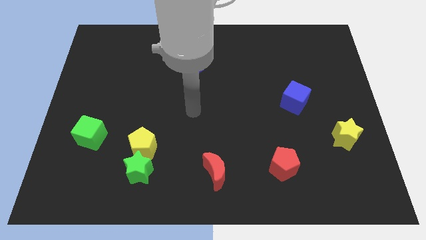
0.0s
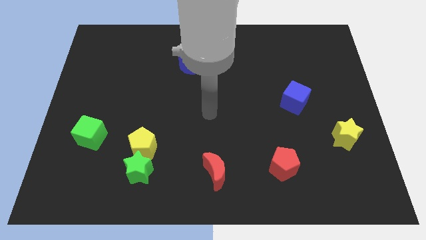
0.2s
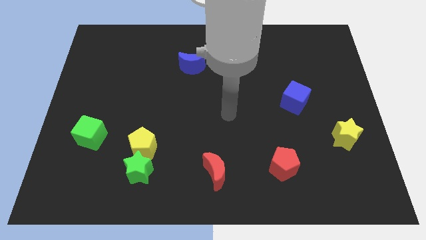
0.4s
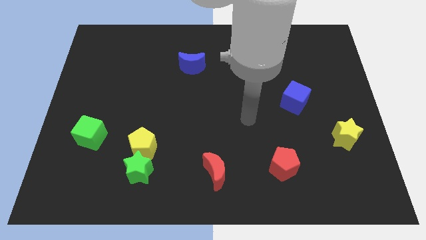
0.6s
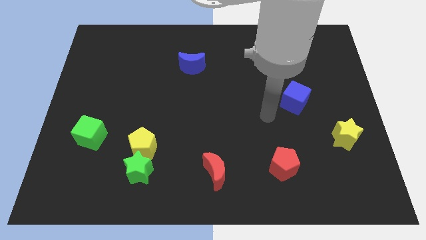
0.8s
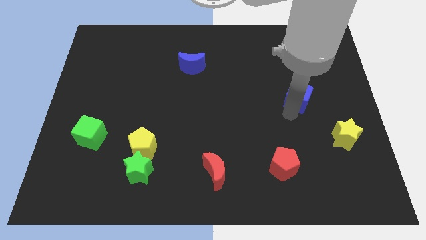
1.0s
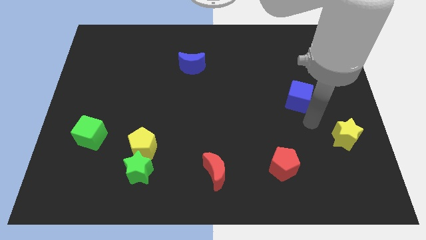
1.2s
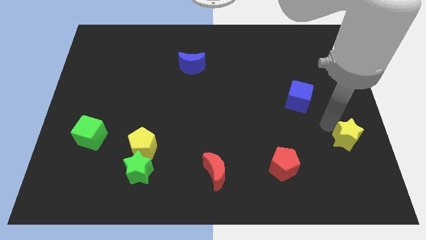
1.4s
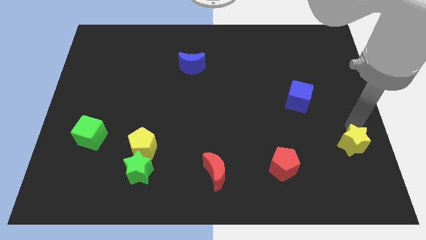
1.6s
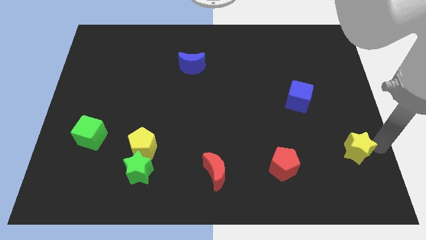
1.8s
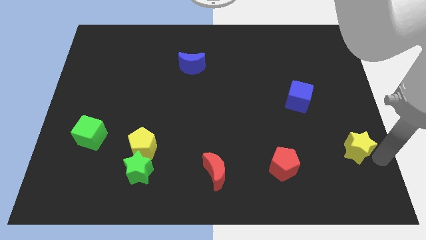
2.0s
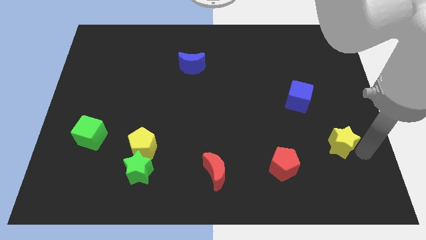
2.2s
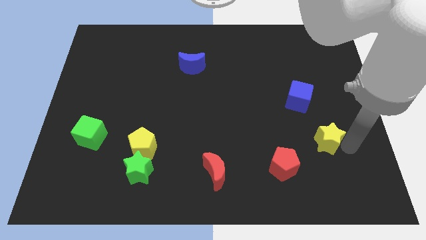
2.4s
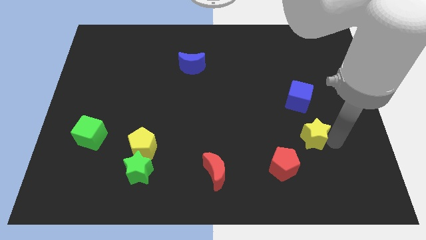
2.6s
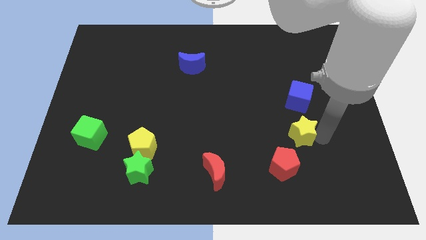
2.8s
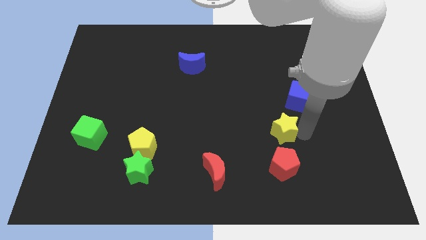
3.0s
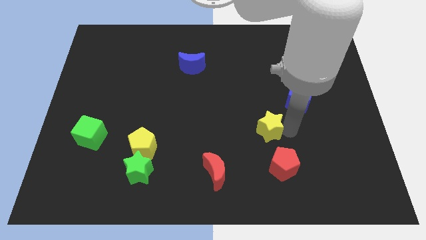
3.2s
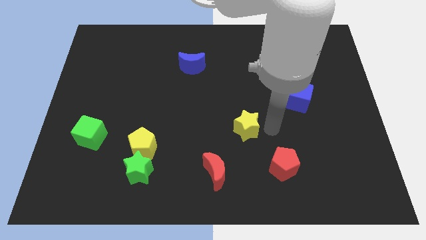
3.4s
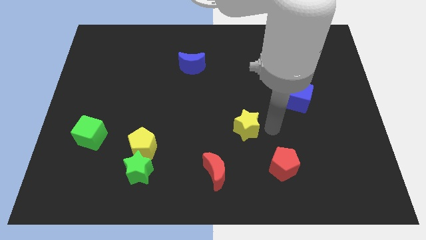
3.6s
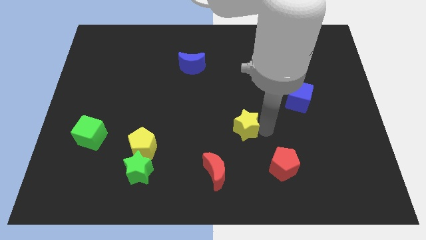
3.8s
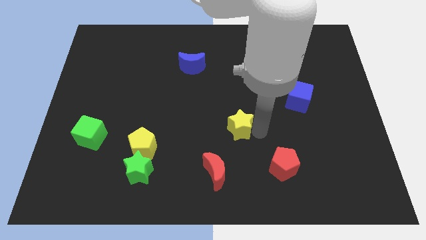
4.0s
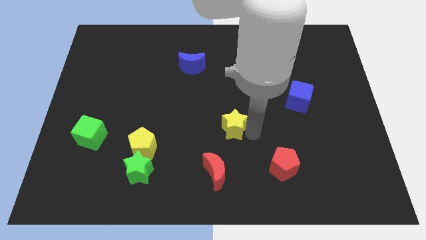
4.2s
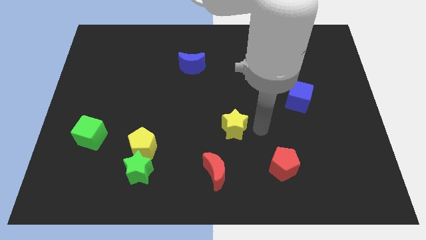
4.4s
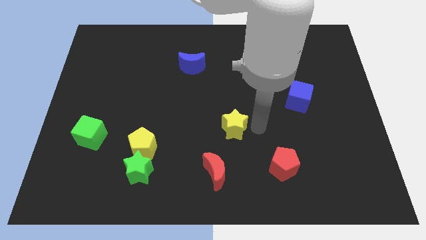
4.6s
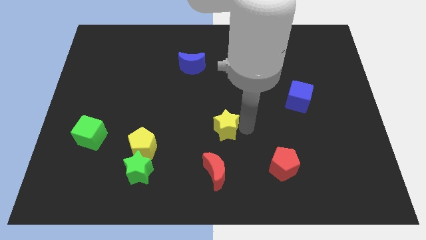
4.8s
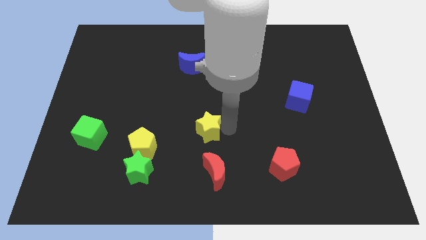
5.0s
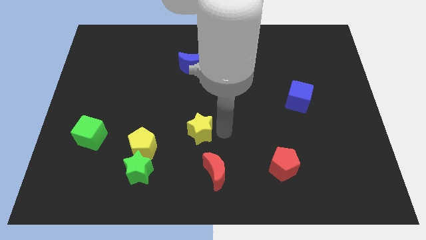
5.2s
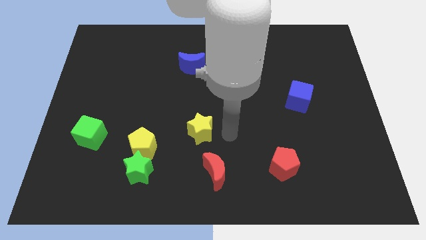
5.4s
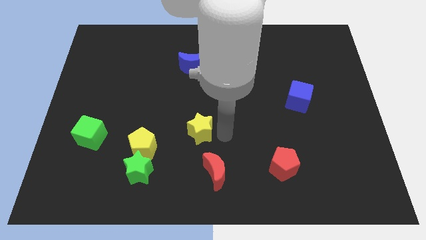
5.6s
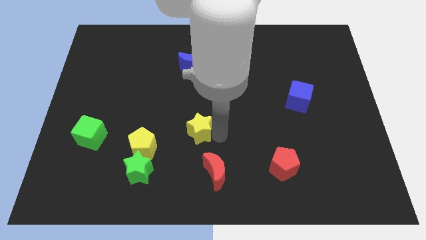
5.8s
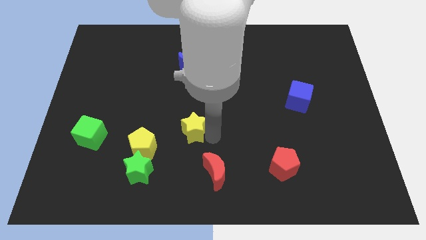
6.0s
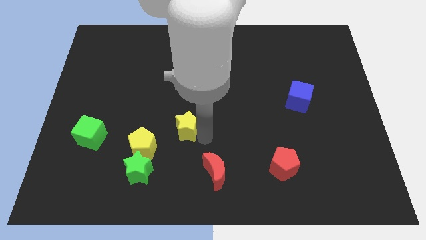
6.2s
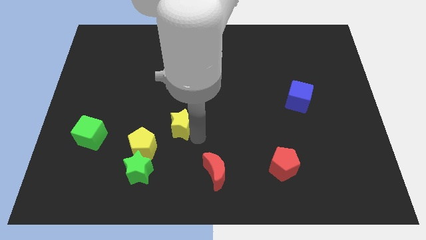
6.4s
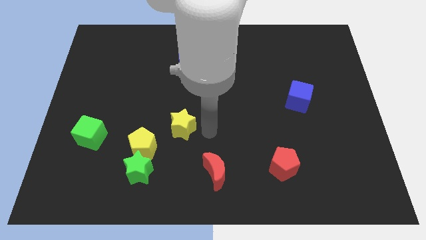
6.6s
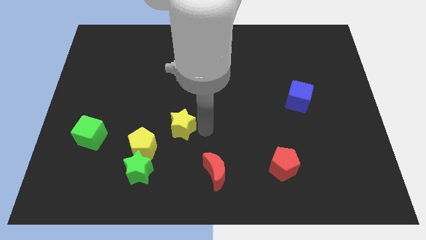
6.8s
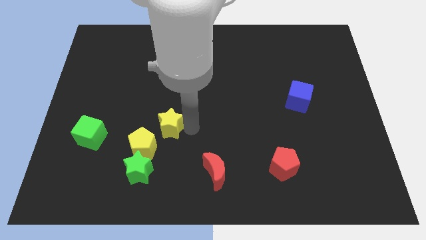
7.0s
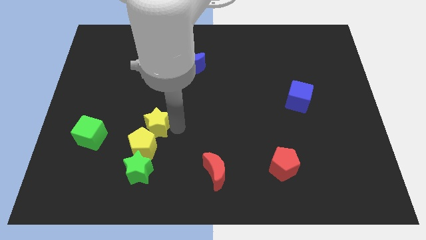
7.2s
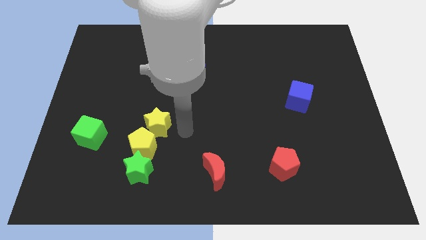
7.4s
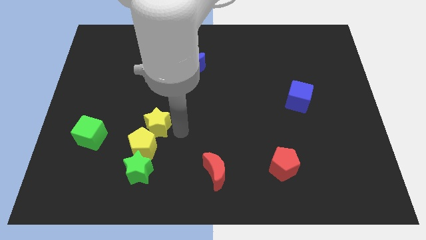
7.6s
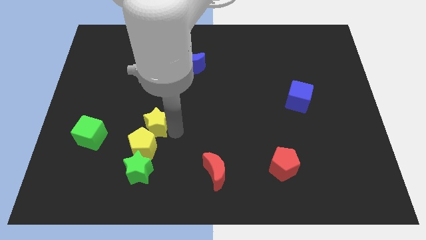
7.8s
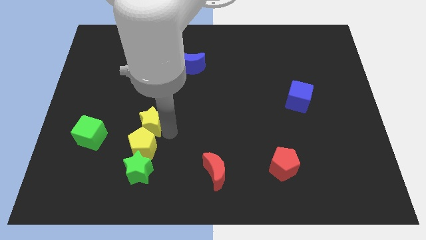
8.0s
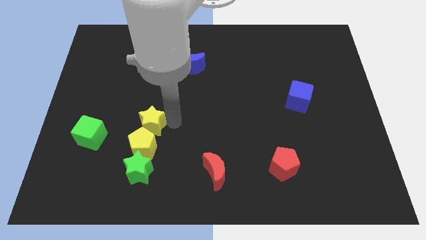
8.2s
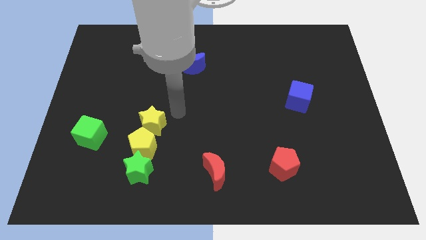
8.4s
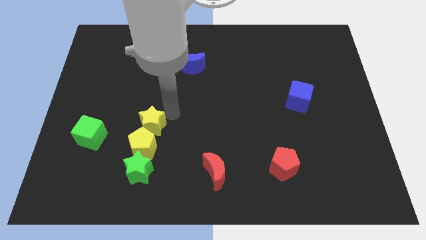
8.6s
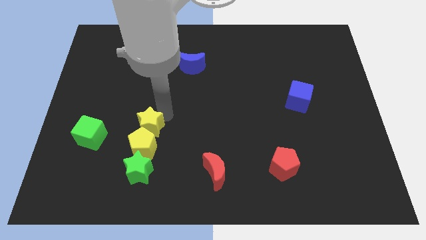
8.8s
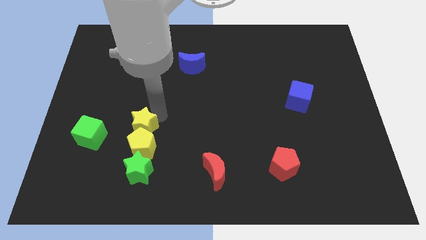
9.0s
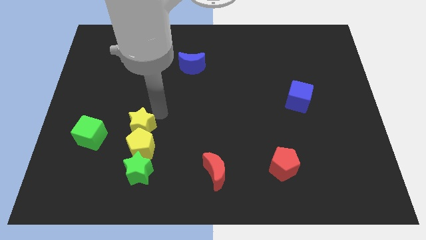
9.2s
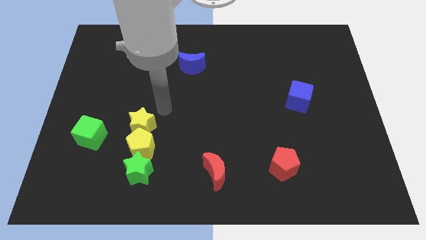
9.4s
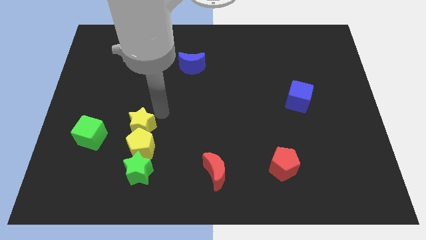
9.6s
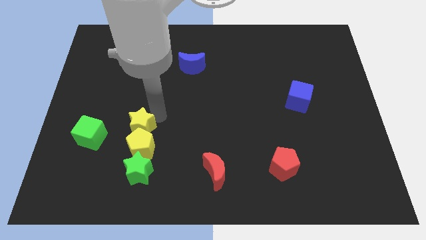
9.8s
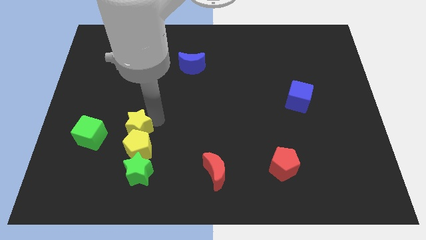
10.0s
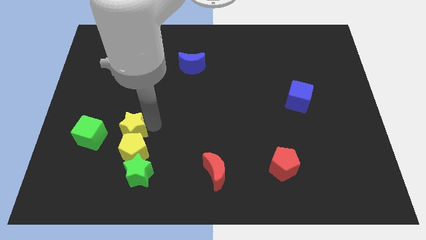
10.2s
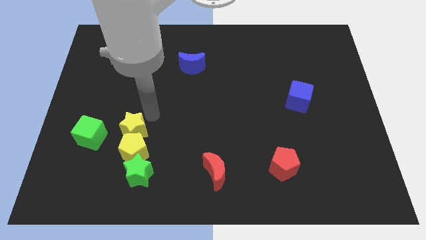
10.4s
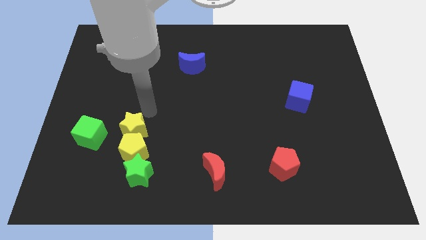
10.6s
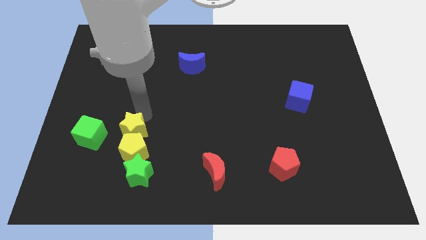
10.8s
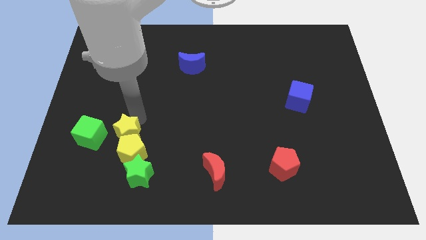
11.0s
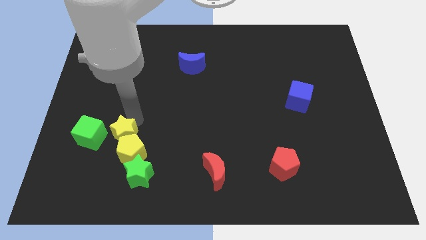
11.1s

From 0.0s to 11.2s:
move the yellow star diagonally up and to the left of the green star

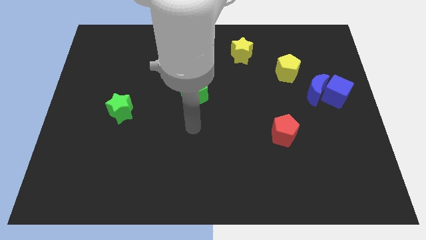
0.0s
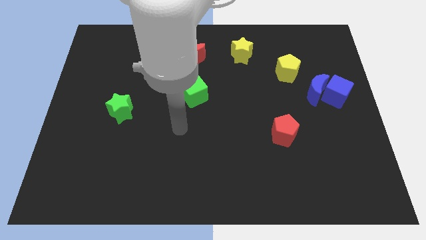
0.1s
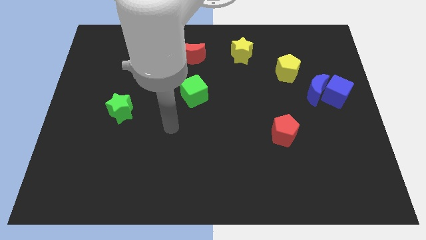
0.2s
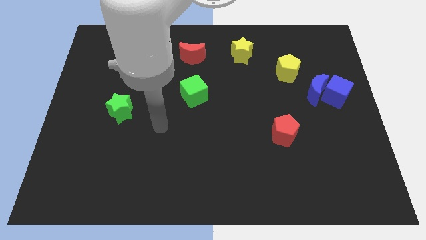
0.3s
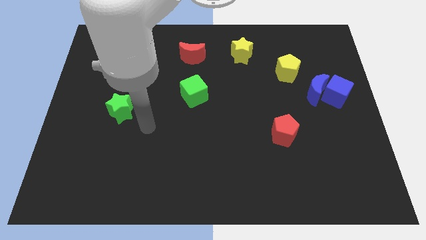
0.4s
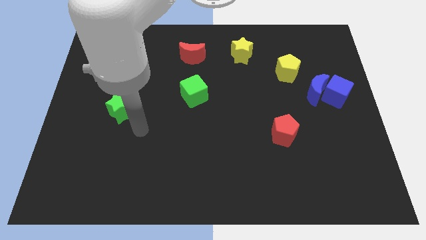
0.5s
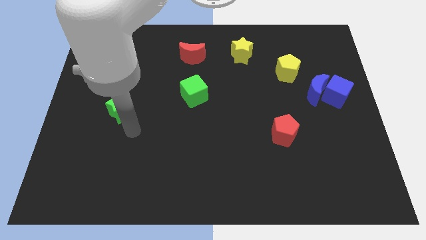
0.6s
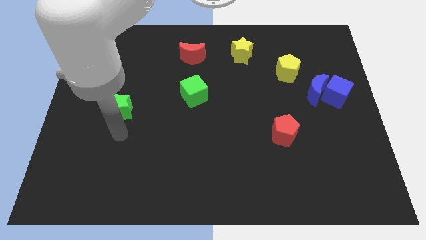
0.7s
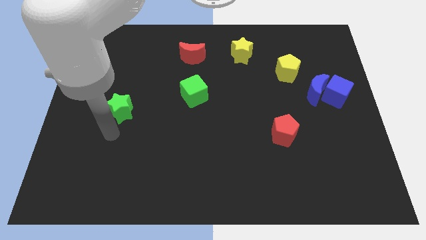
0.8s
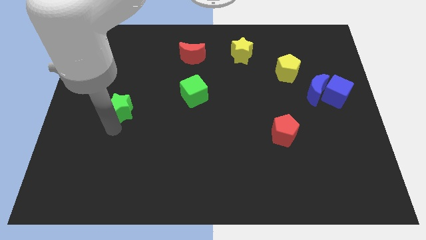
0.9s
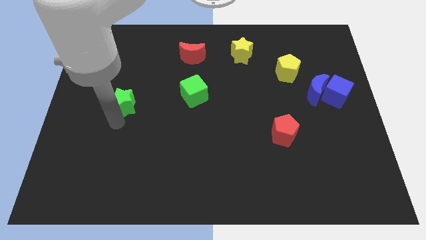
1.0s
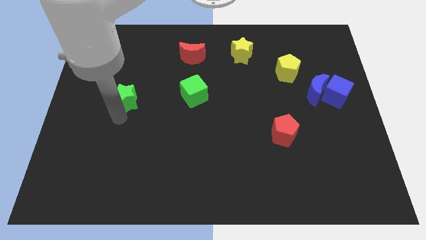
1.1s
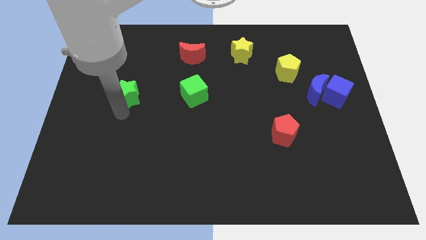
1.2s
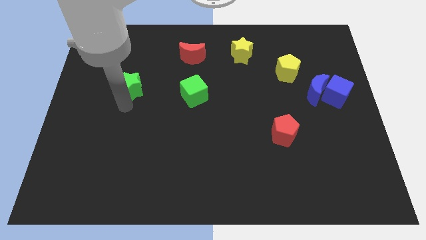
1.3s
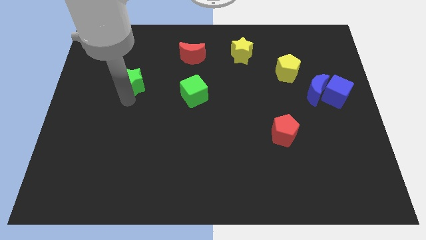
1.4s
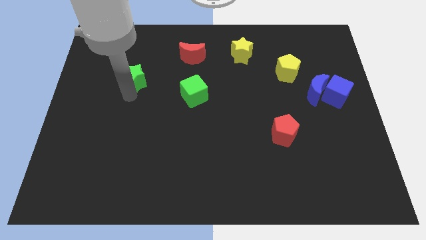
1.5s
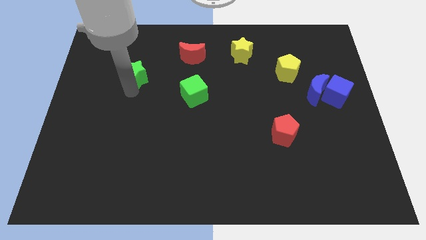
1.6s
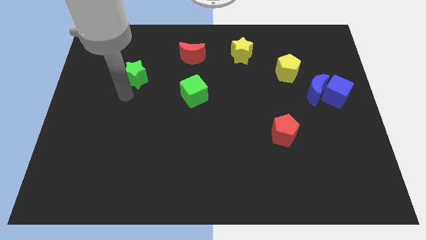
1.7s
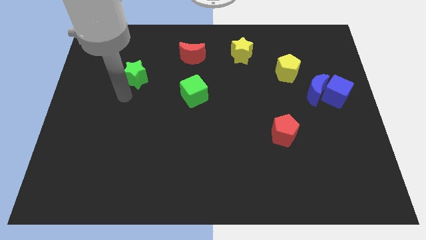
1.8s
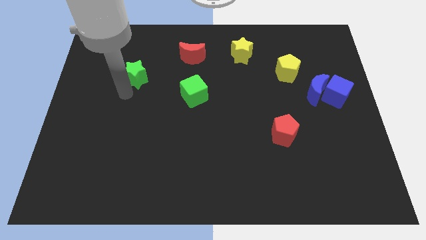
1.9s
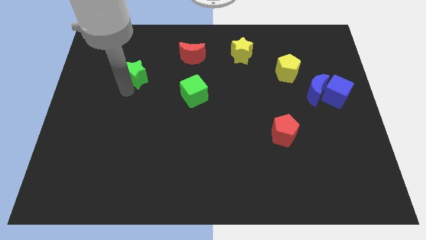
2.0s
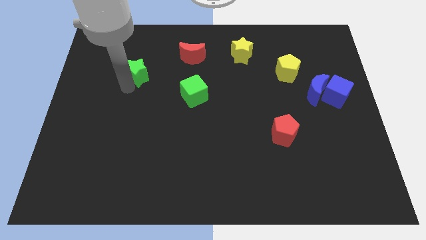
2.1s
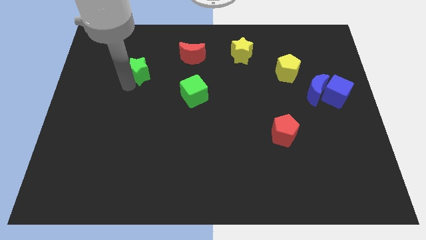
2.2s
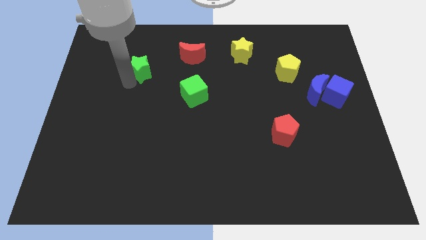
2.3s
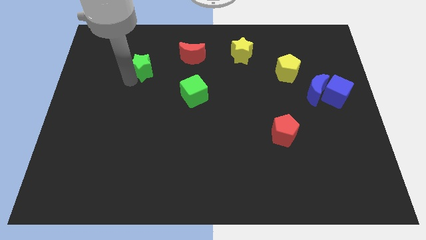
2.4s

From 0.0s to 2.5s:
push the green star to the left of the red moon

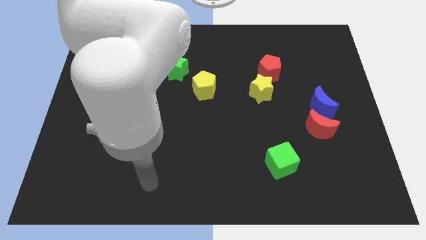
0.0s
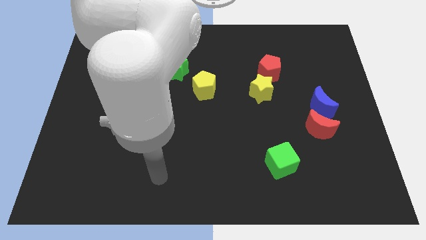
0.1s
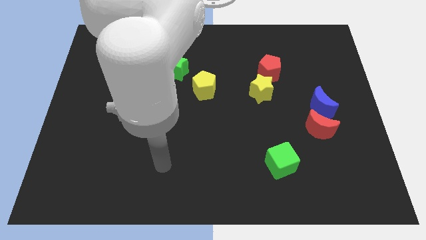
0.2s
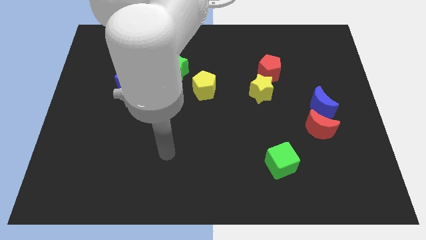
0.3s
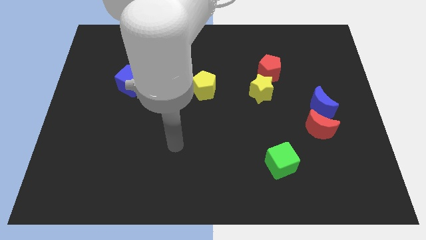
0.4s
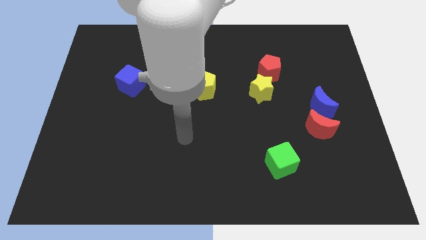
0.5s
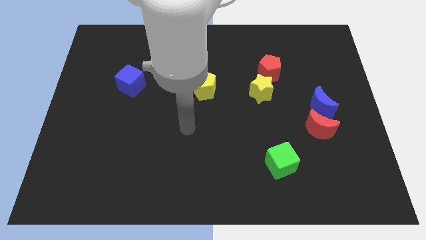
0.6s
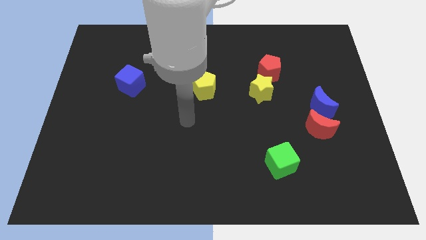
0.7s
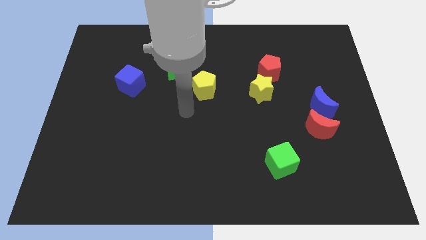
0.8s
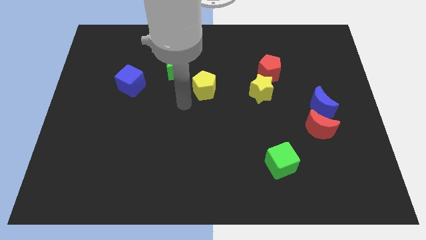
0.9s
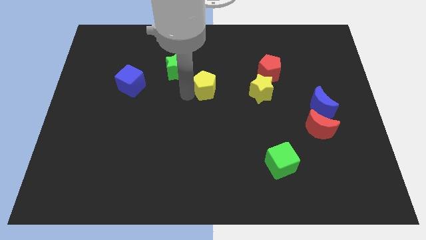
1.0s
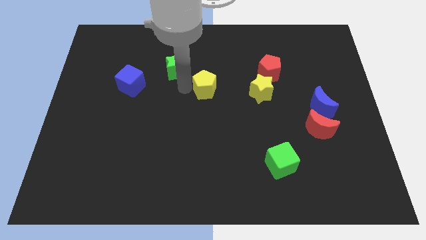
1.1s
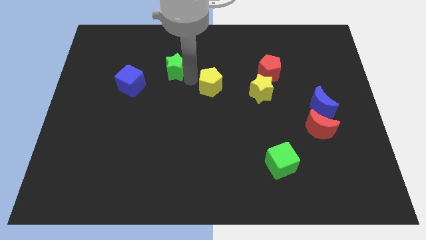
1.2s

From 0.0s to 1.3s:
move the green star just left of the yellow pentagon
